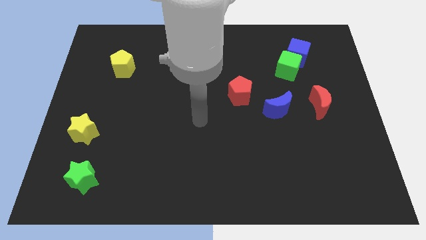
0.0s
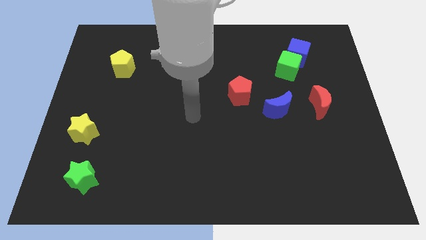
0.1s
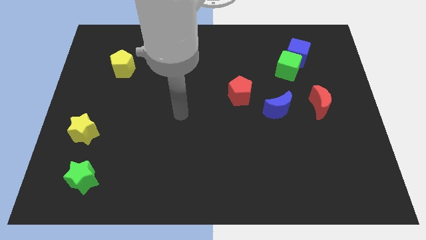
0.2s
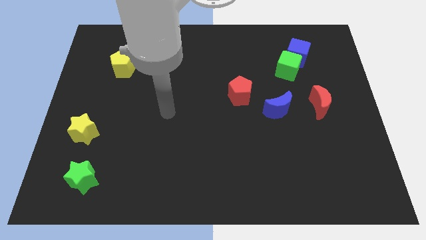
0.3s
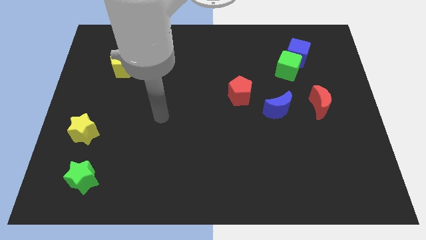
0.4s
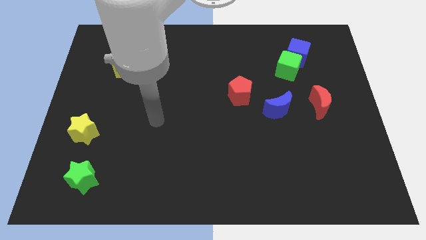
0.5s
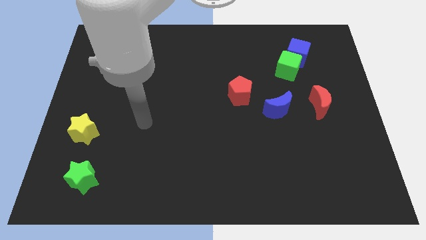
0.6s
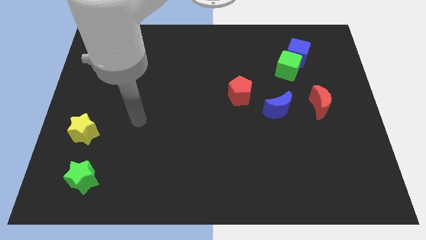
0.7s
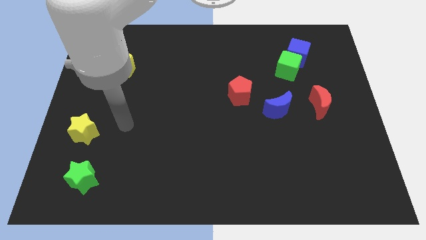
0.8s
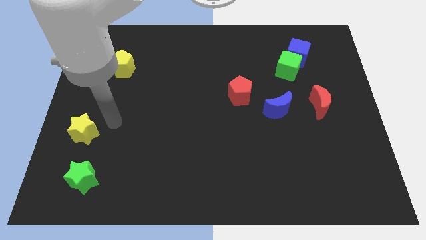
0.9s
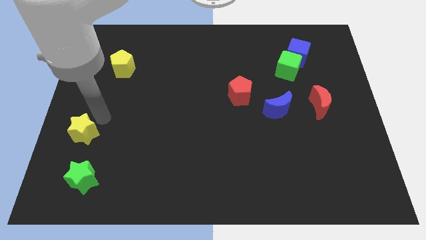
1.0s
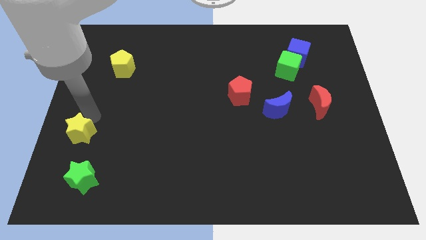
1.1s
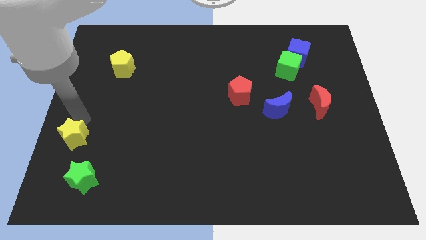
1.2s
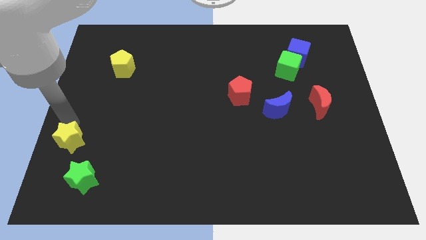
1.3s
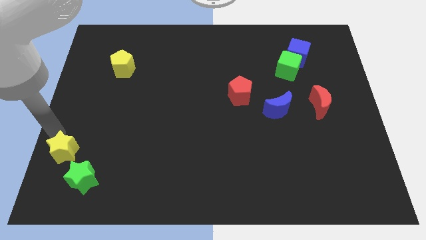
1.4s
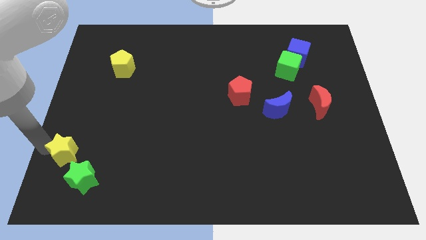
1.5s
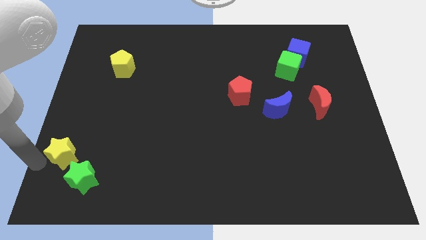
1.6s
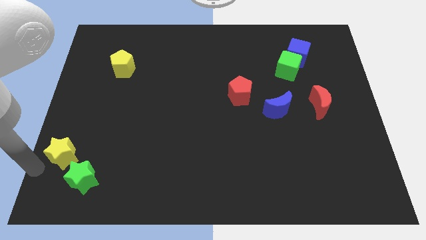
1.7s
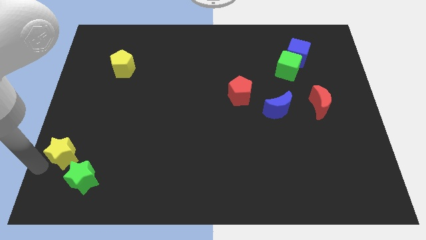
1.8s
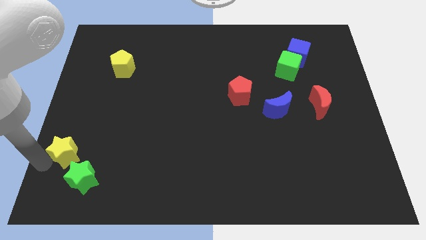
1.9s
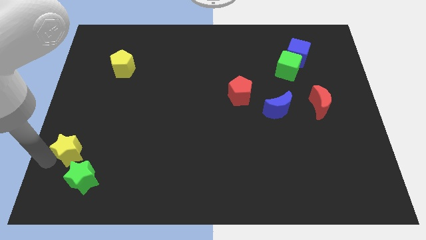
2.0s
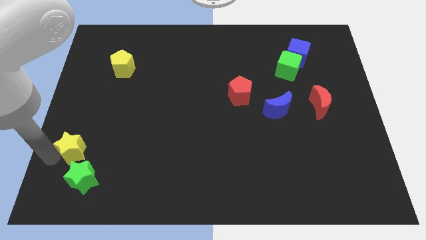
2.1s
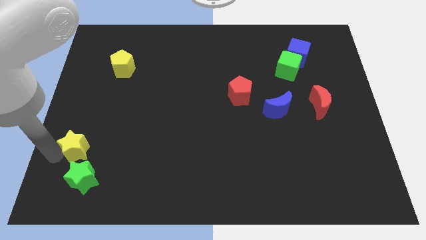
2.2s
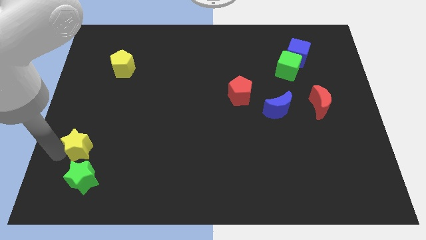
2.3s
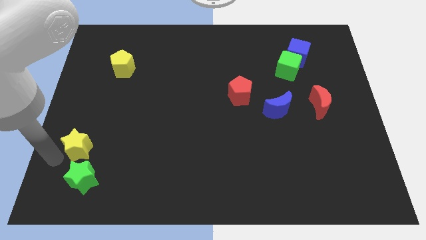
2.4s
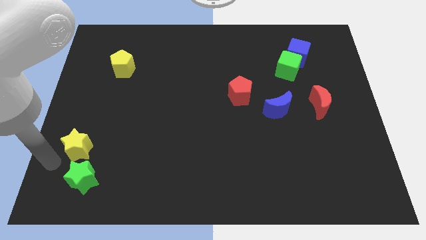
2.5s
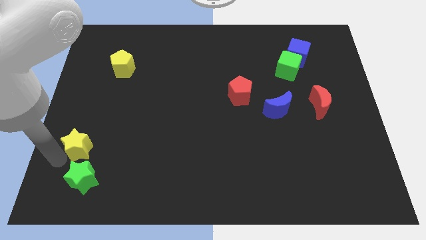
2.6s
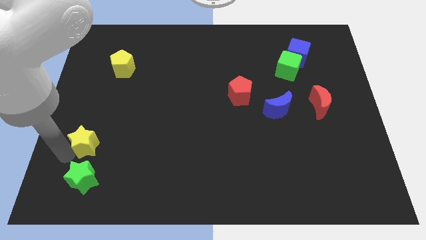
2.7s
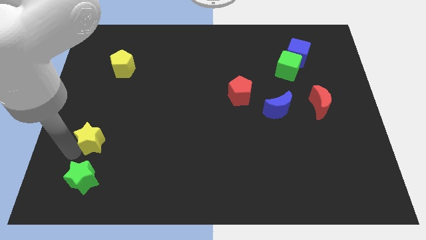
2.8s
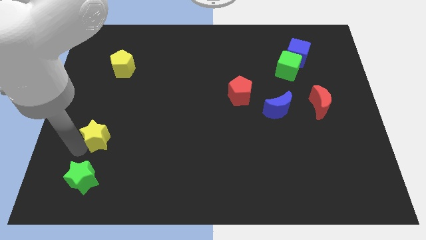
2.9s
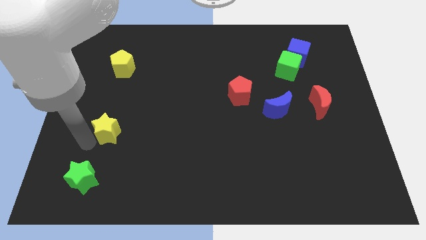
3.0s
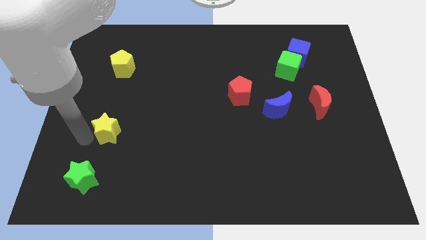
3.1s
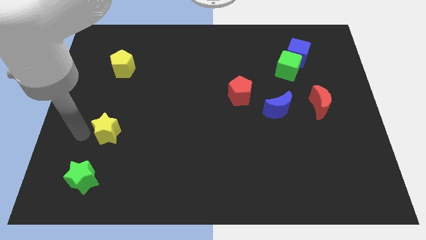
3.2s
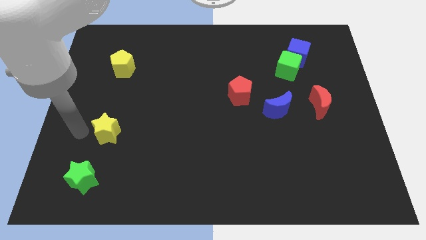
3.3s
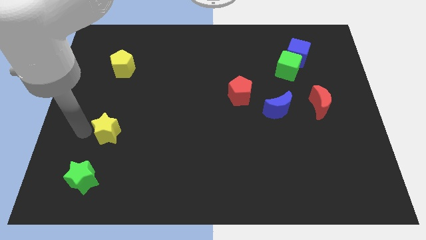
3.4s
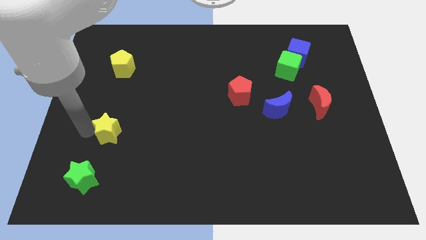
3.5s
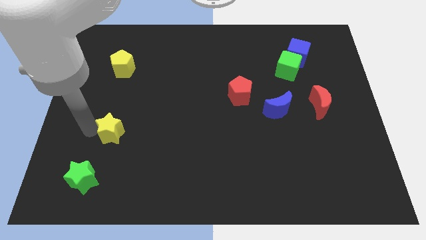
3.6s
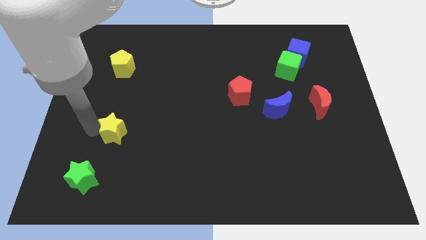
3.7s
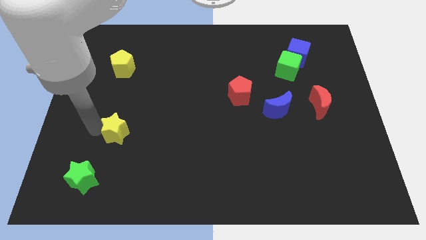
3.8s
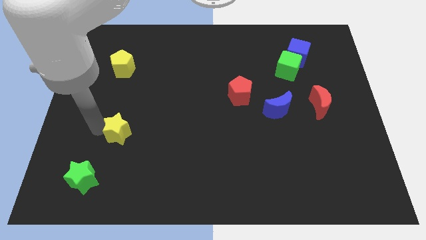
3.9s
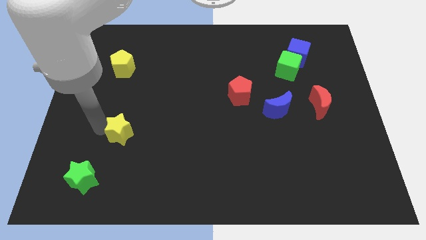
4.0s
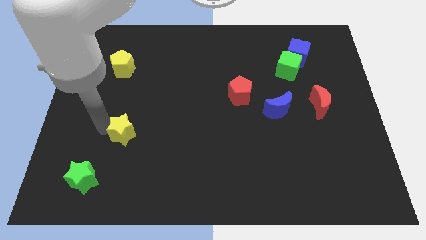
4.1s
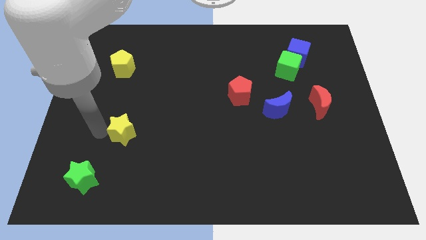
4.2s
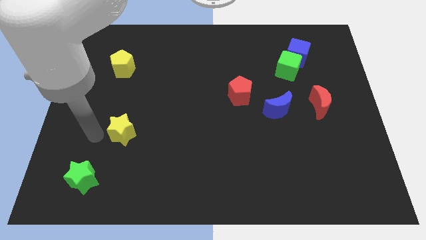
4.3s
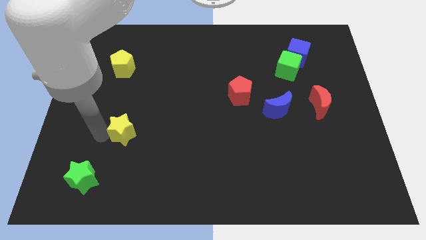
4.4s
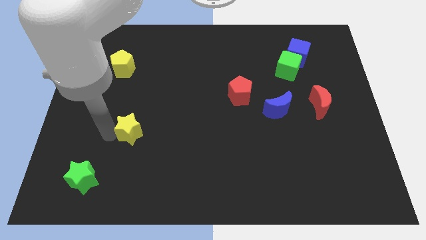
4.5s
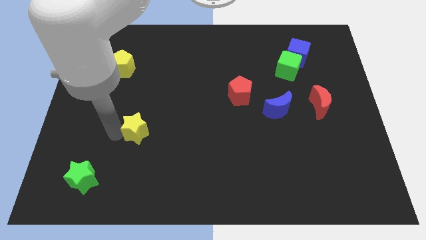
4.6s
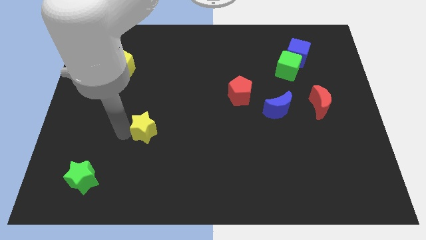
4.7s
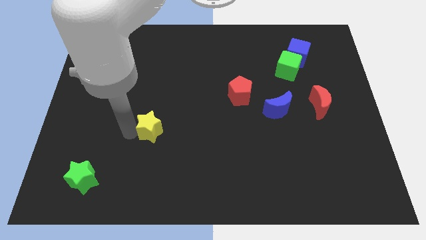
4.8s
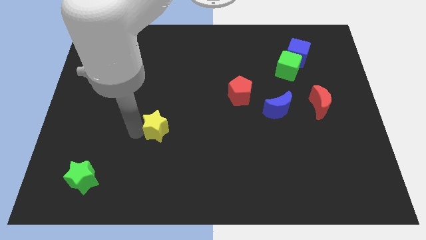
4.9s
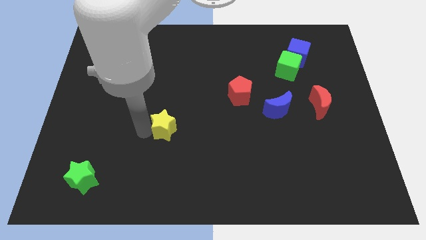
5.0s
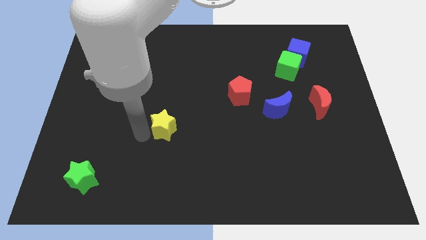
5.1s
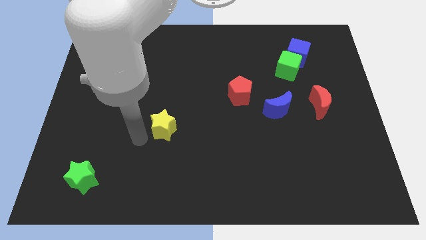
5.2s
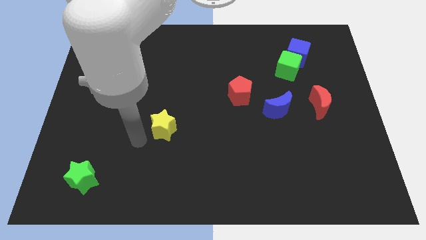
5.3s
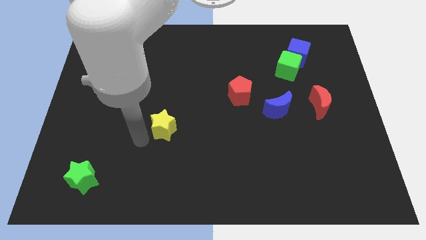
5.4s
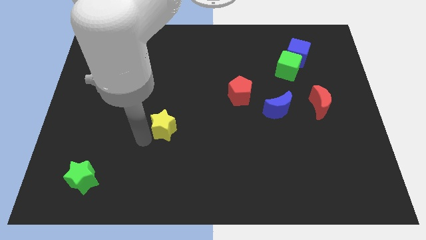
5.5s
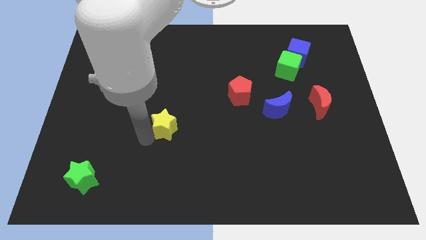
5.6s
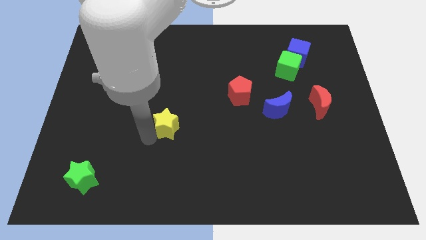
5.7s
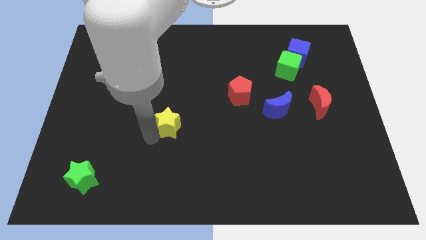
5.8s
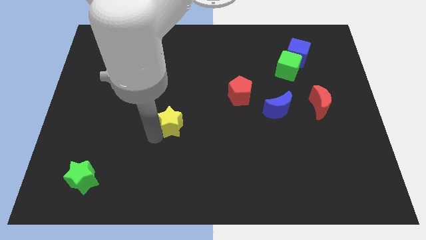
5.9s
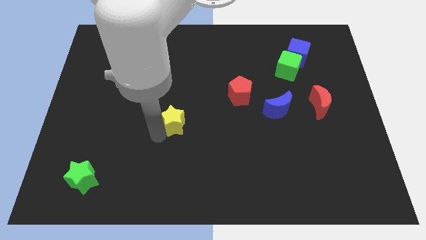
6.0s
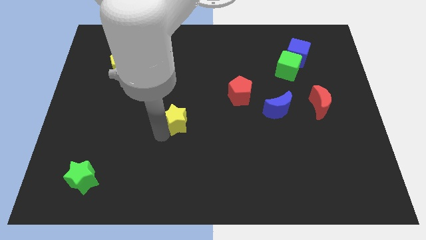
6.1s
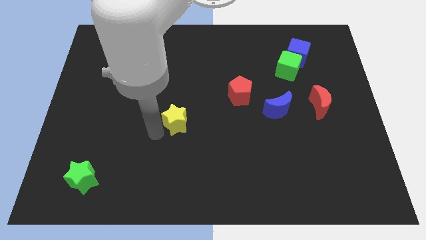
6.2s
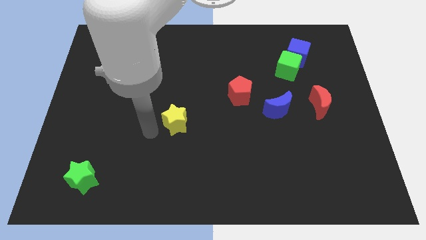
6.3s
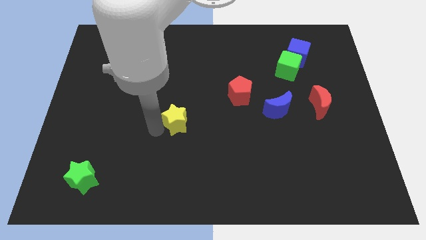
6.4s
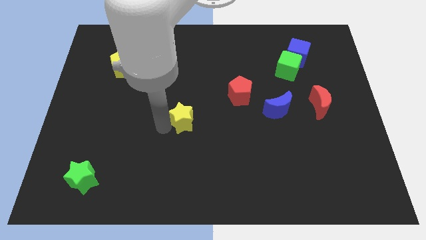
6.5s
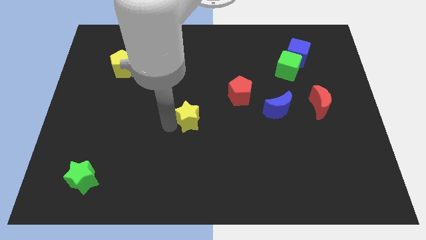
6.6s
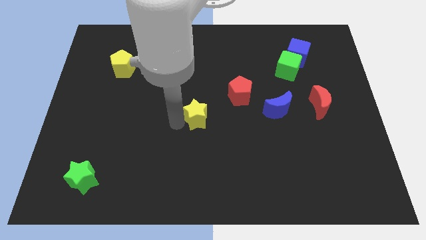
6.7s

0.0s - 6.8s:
slide the yellow star diagonally down and to the left of the red pentagon

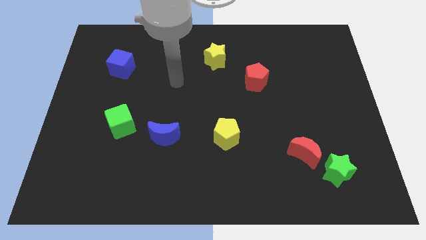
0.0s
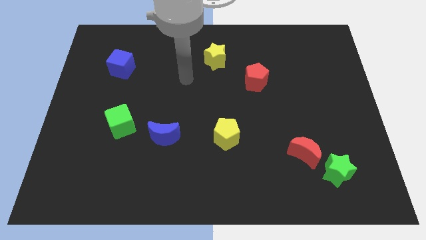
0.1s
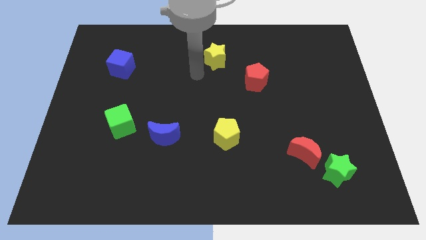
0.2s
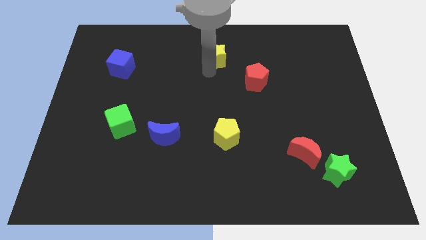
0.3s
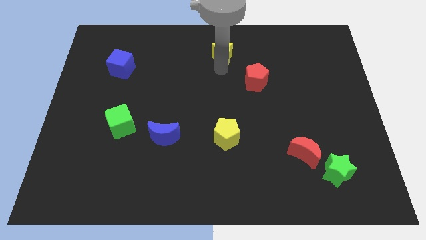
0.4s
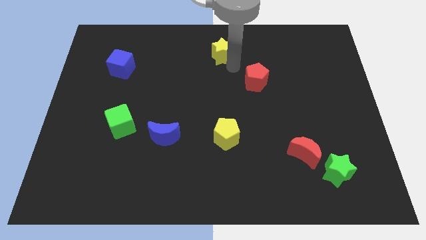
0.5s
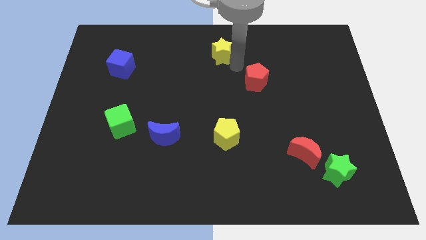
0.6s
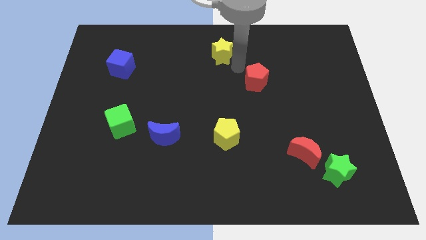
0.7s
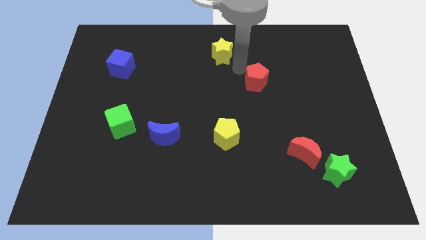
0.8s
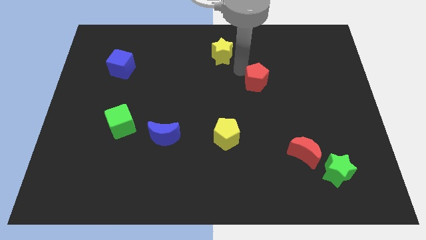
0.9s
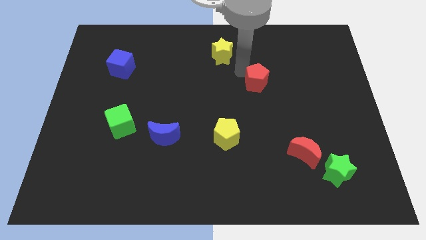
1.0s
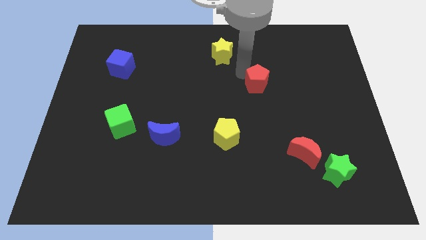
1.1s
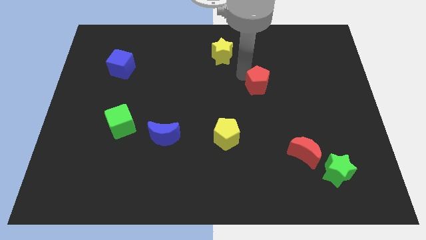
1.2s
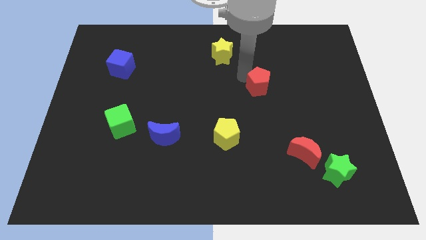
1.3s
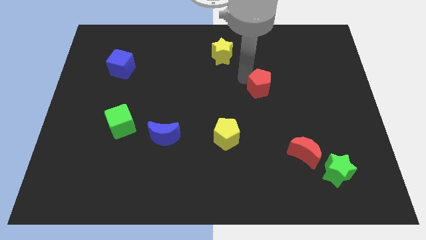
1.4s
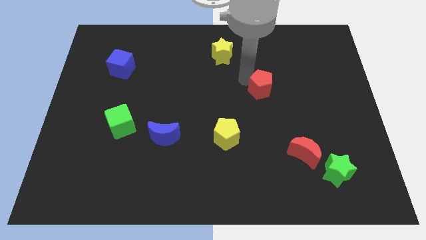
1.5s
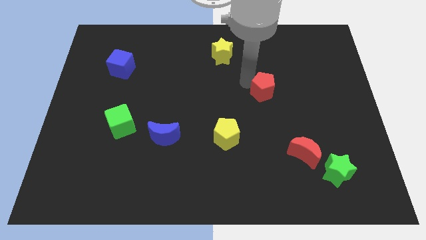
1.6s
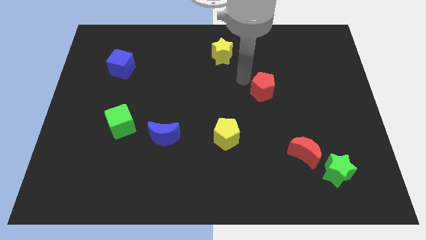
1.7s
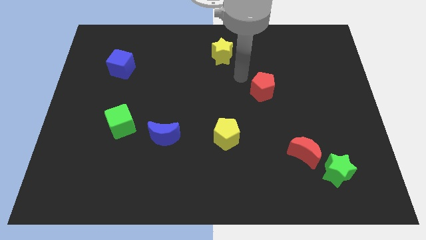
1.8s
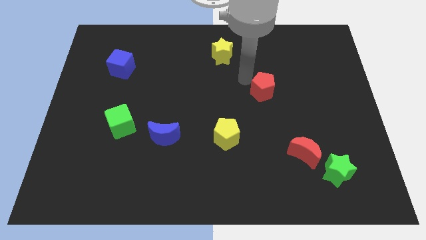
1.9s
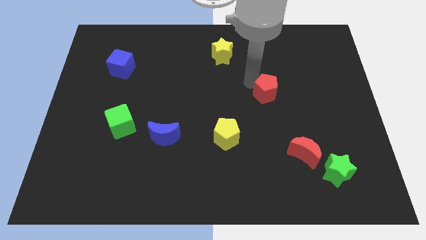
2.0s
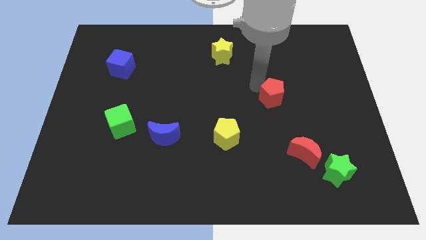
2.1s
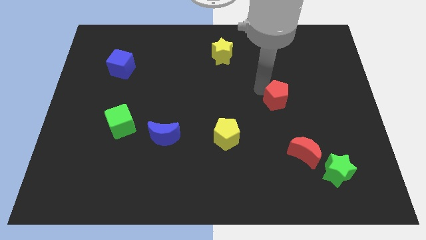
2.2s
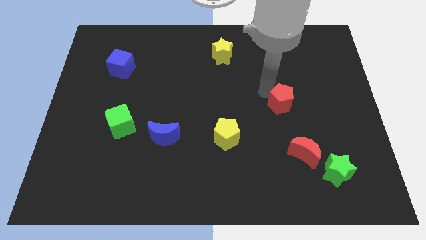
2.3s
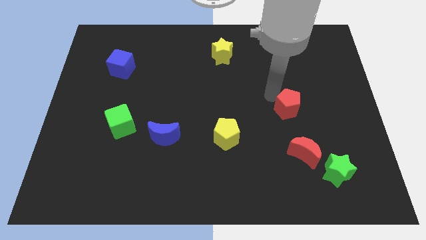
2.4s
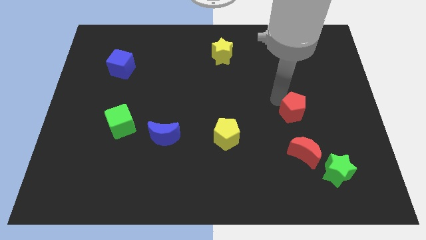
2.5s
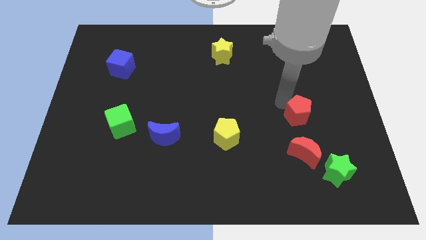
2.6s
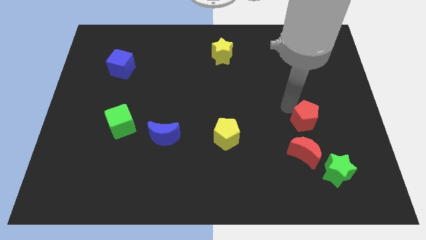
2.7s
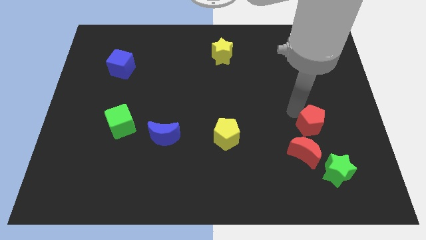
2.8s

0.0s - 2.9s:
push the red pentagon diagonally up and to the right of the red moon
